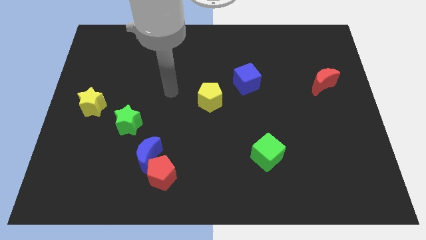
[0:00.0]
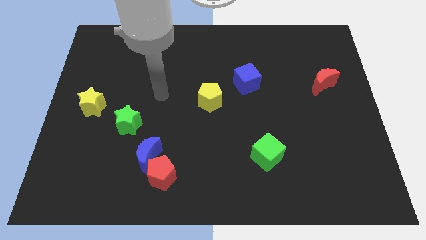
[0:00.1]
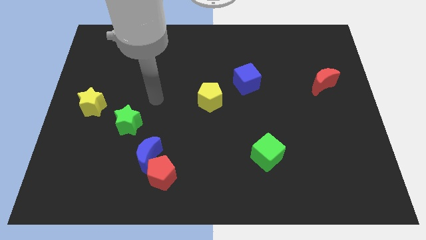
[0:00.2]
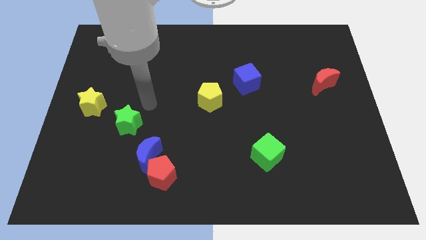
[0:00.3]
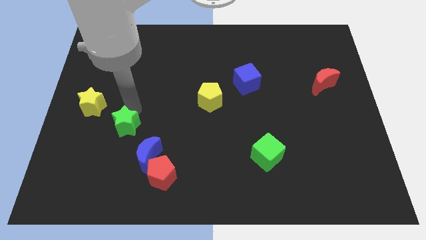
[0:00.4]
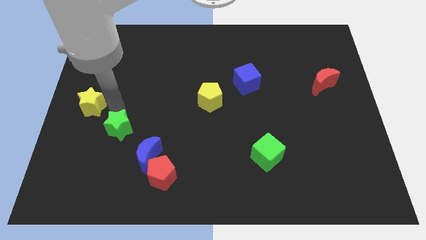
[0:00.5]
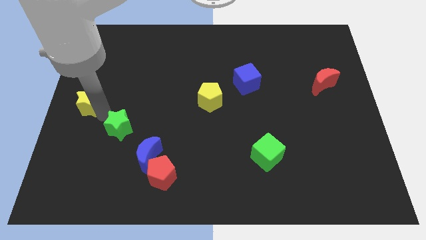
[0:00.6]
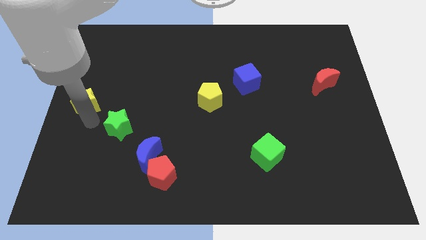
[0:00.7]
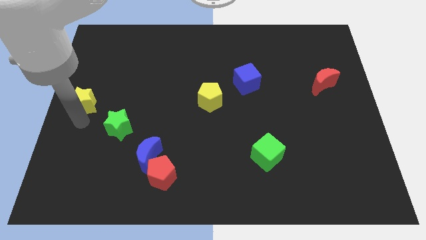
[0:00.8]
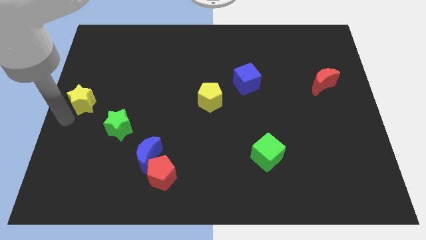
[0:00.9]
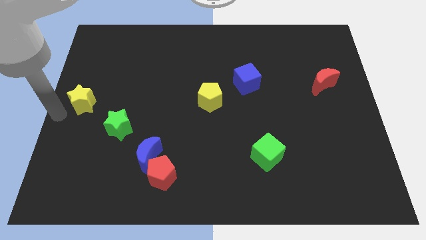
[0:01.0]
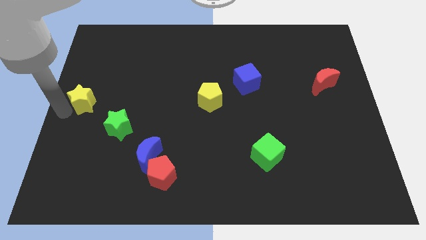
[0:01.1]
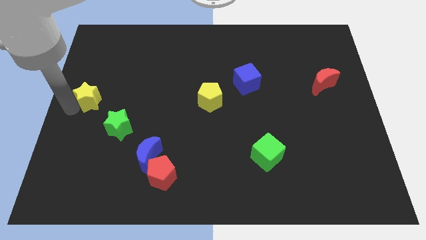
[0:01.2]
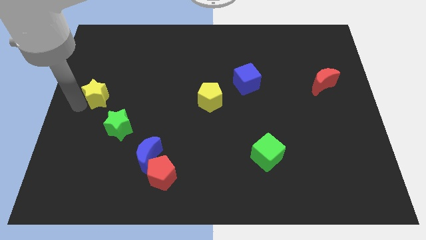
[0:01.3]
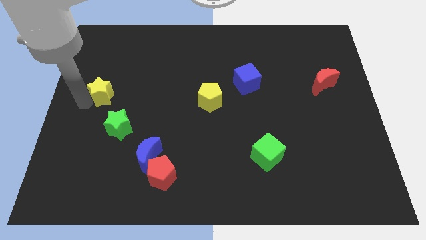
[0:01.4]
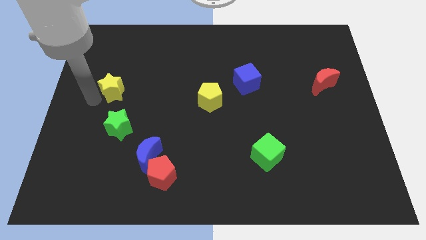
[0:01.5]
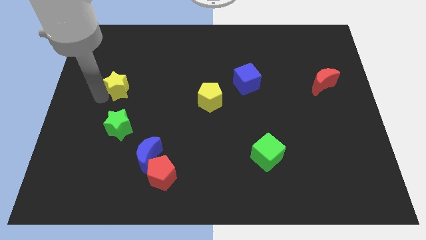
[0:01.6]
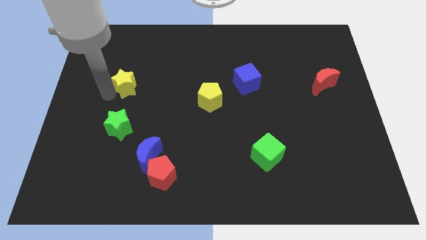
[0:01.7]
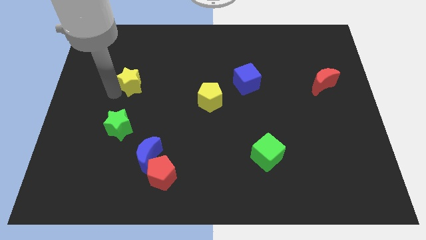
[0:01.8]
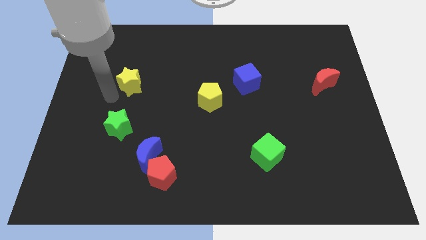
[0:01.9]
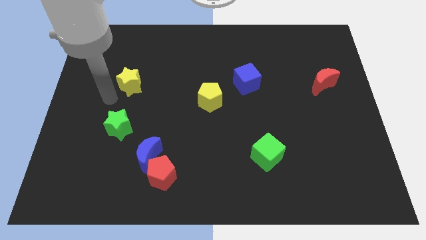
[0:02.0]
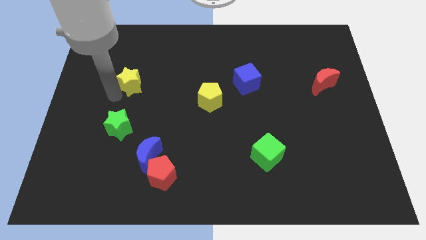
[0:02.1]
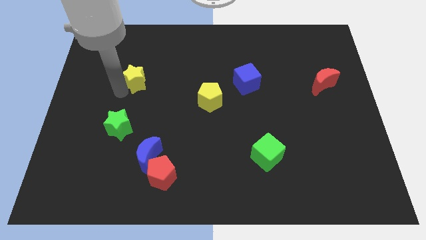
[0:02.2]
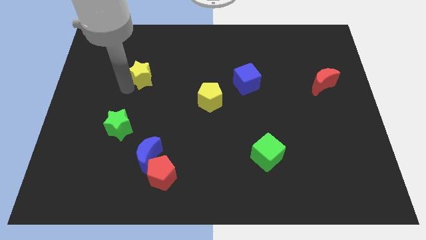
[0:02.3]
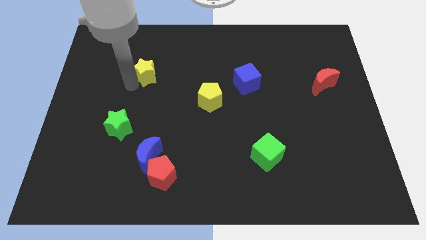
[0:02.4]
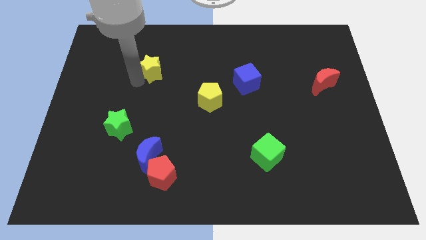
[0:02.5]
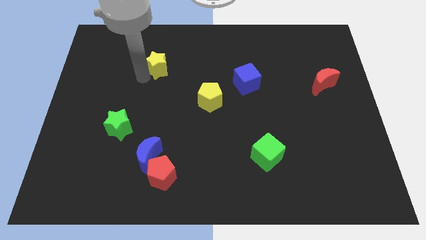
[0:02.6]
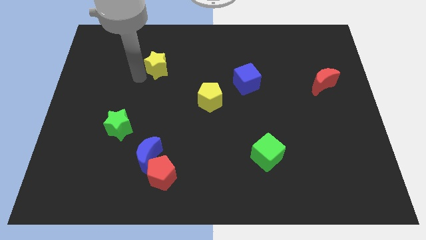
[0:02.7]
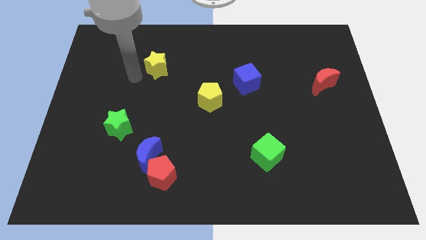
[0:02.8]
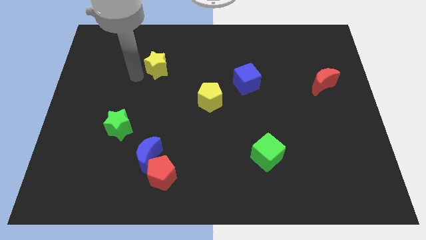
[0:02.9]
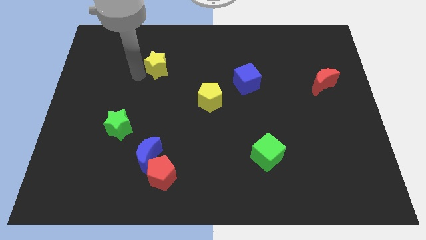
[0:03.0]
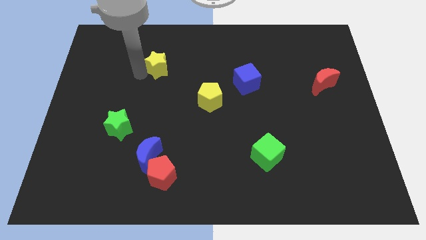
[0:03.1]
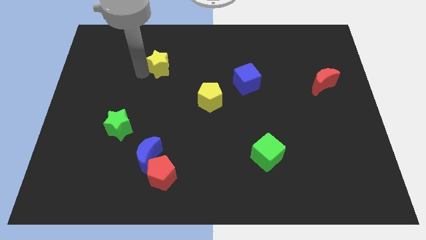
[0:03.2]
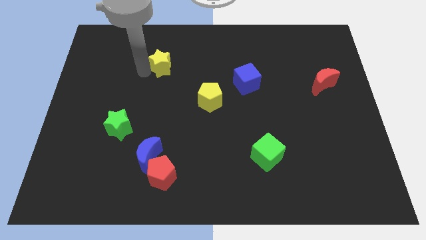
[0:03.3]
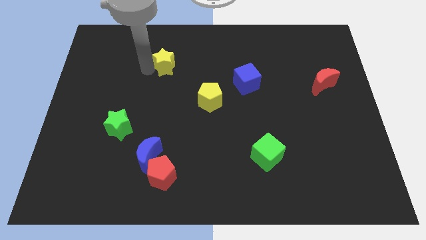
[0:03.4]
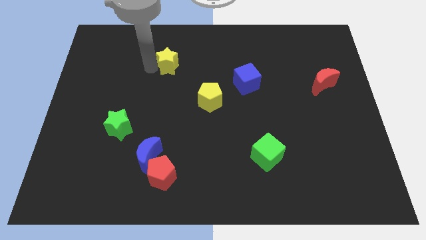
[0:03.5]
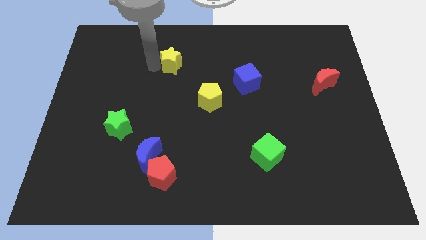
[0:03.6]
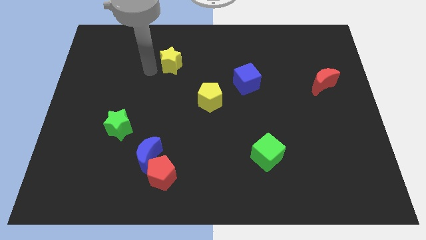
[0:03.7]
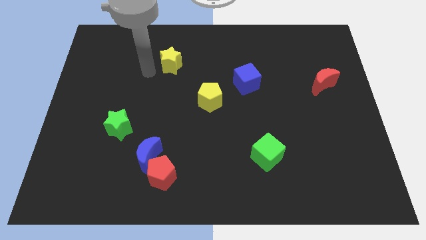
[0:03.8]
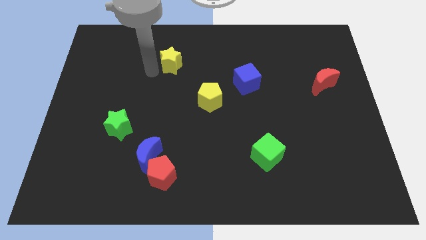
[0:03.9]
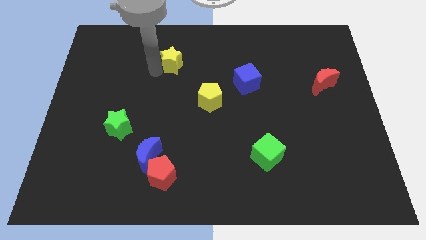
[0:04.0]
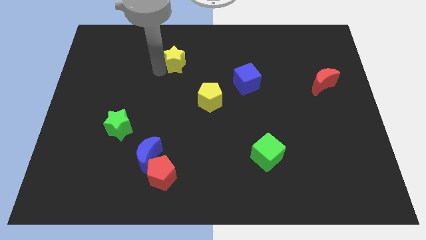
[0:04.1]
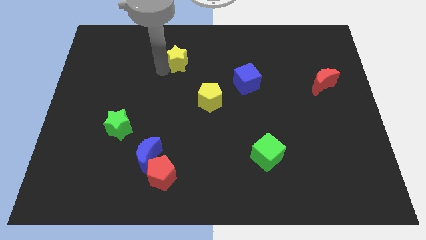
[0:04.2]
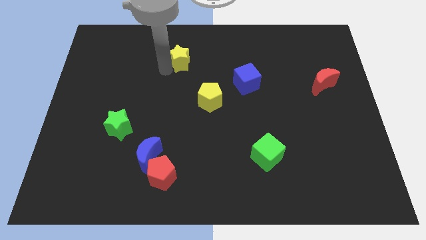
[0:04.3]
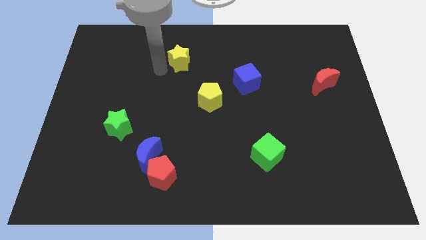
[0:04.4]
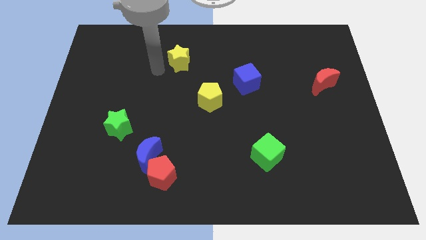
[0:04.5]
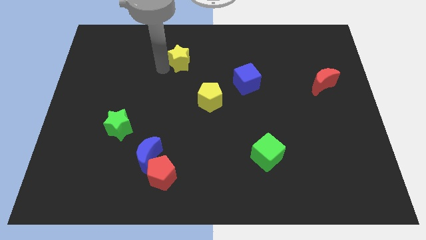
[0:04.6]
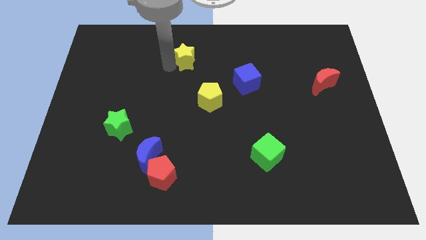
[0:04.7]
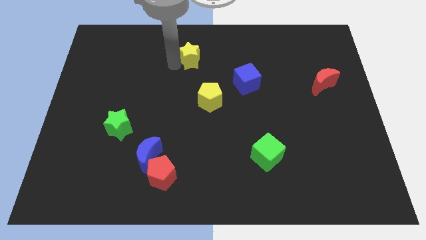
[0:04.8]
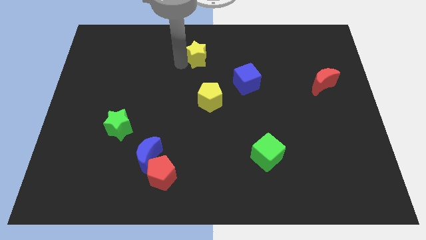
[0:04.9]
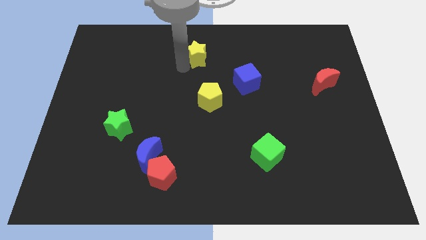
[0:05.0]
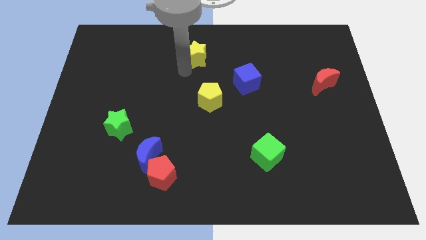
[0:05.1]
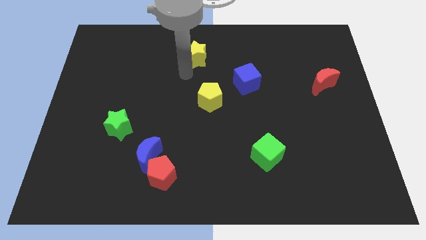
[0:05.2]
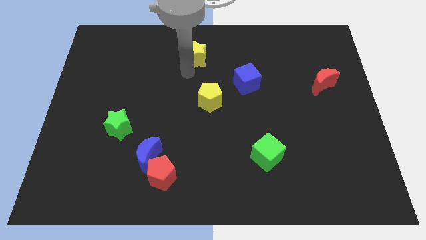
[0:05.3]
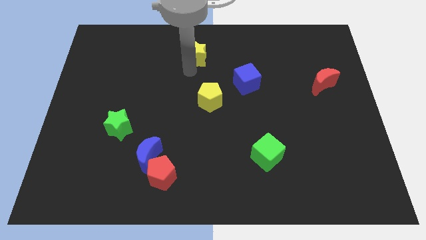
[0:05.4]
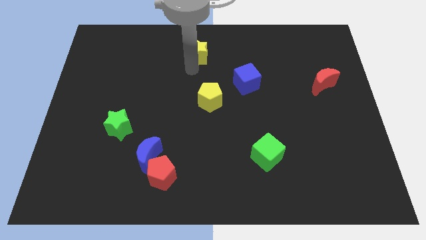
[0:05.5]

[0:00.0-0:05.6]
put the yellow star to the towards your base

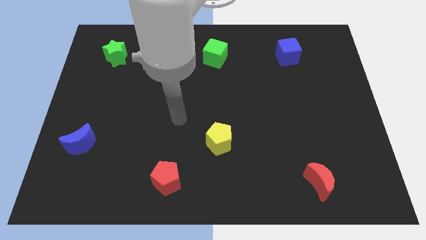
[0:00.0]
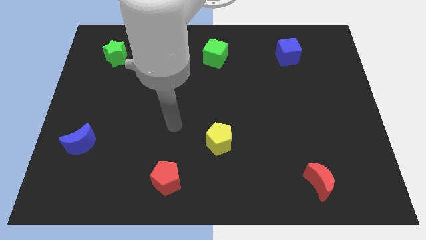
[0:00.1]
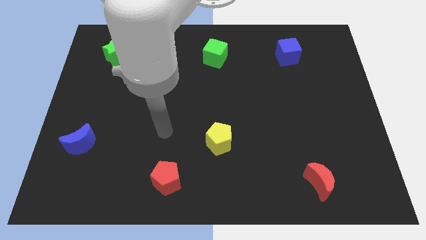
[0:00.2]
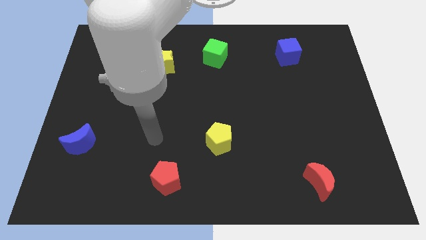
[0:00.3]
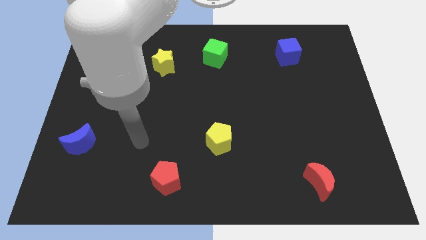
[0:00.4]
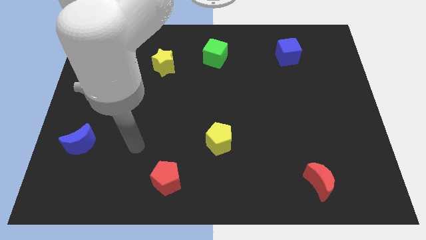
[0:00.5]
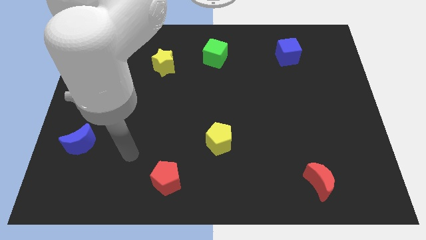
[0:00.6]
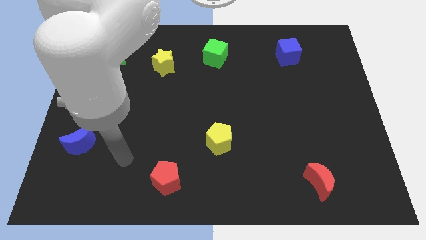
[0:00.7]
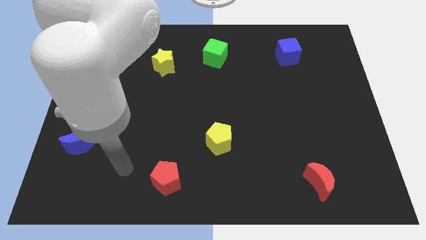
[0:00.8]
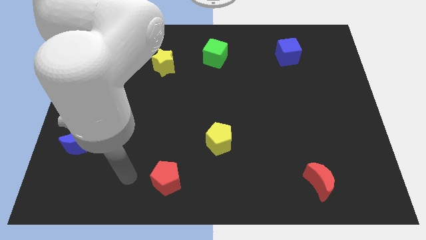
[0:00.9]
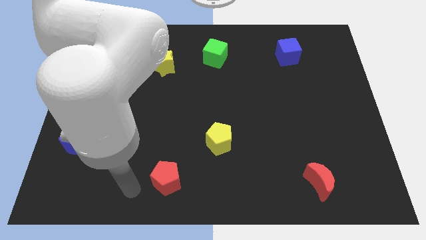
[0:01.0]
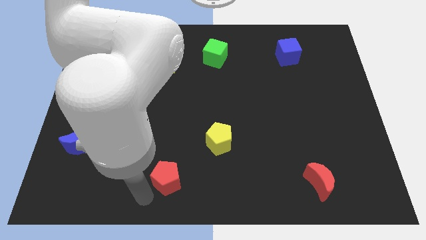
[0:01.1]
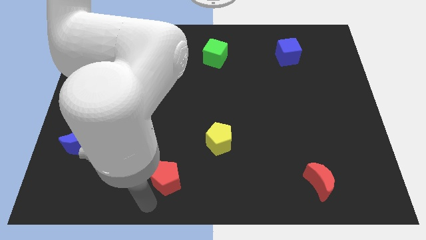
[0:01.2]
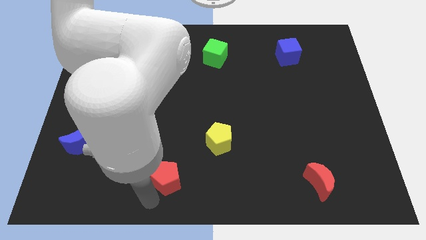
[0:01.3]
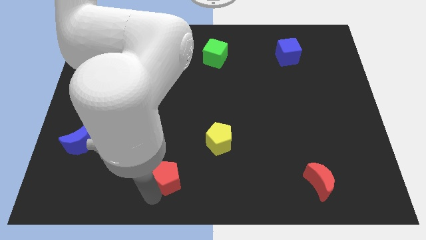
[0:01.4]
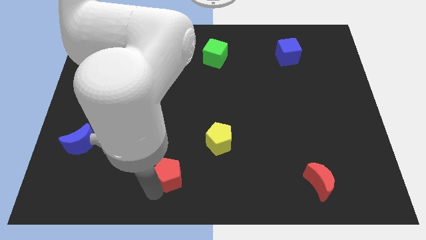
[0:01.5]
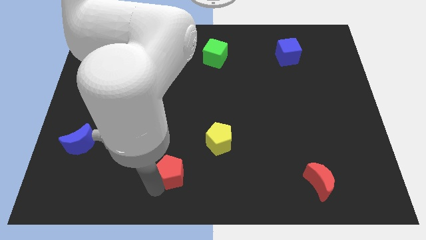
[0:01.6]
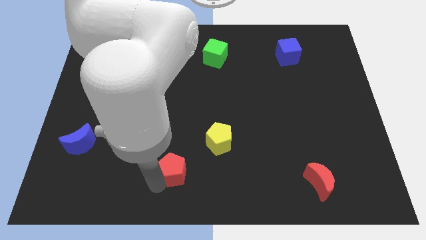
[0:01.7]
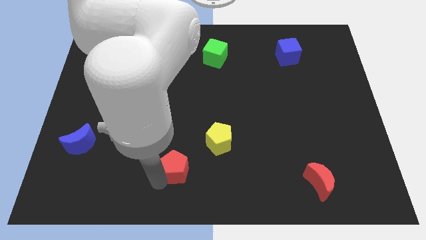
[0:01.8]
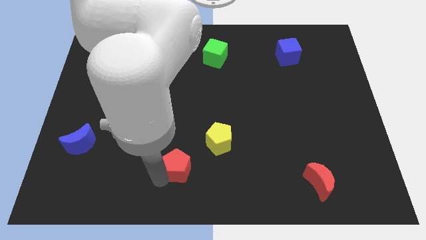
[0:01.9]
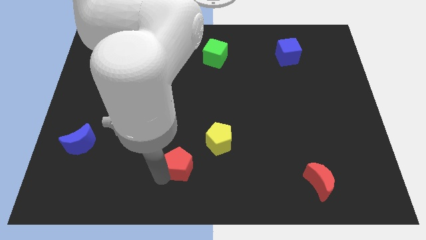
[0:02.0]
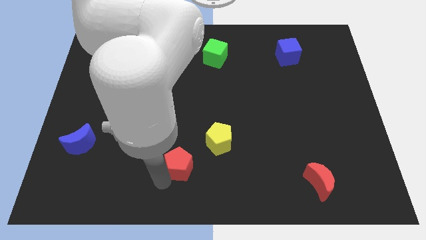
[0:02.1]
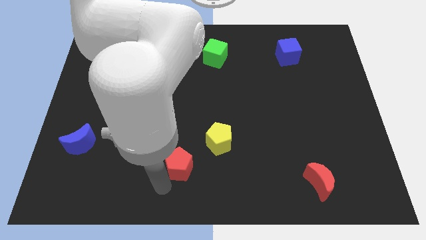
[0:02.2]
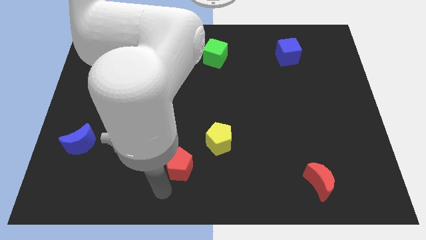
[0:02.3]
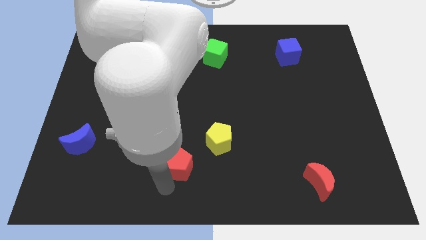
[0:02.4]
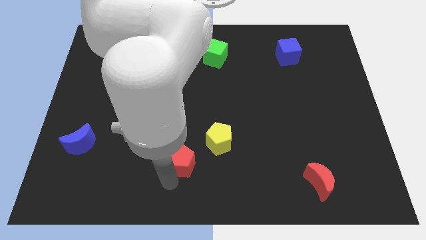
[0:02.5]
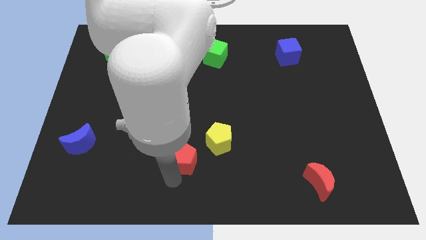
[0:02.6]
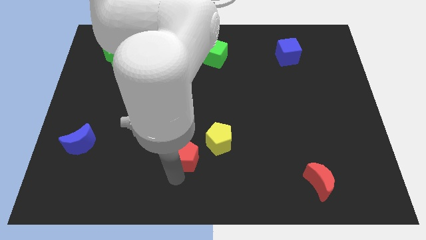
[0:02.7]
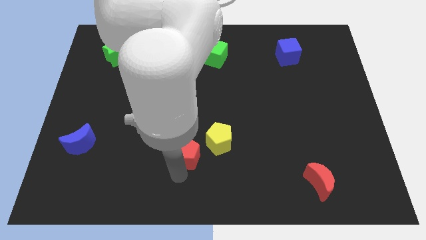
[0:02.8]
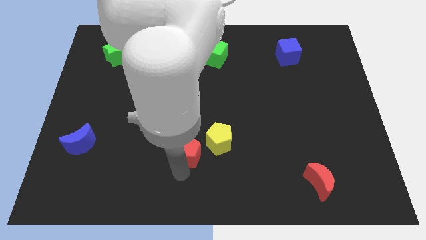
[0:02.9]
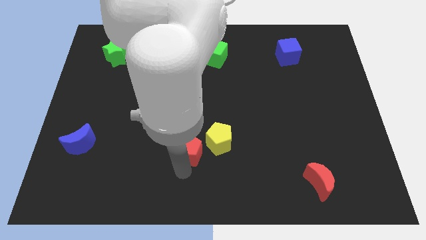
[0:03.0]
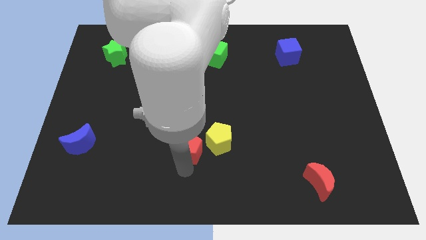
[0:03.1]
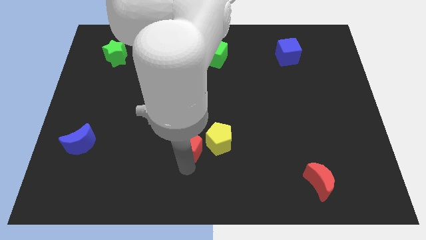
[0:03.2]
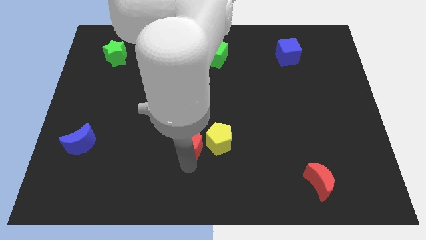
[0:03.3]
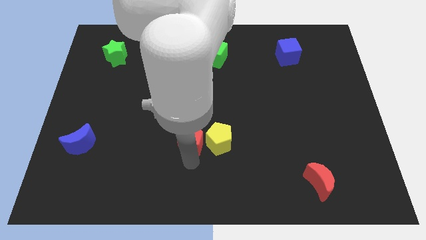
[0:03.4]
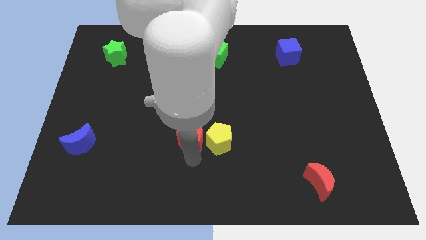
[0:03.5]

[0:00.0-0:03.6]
push the red pentagon to the middle
